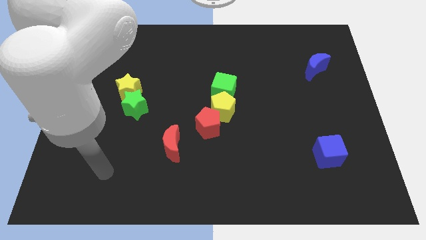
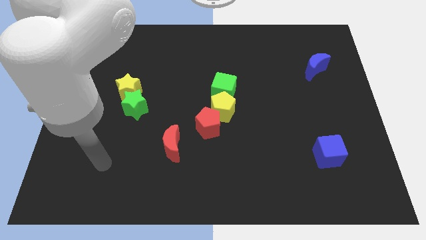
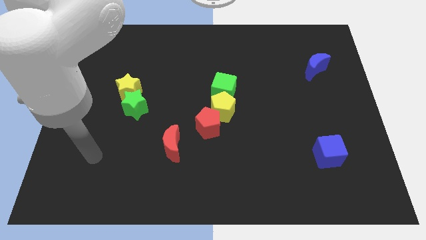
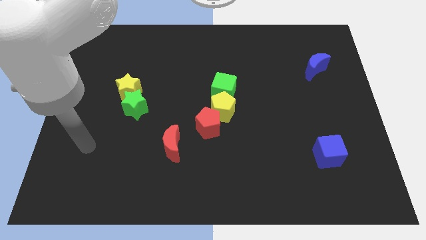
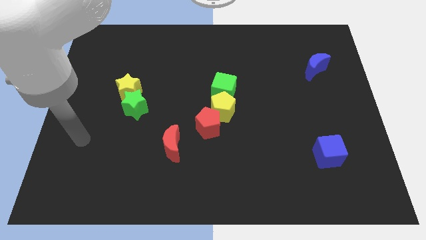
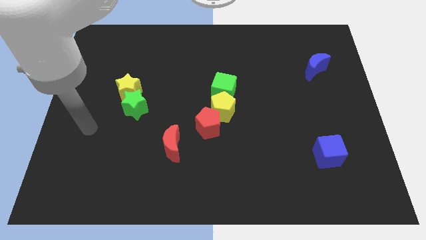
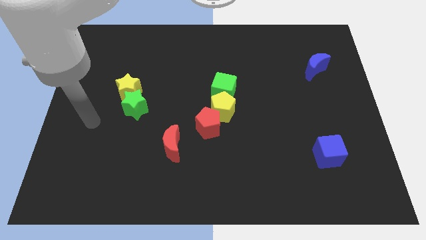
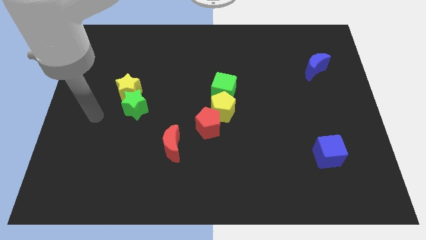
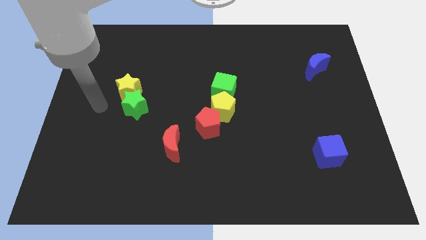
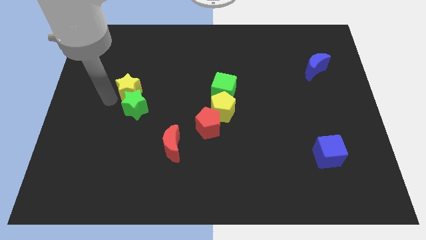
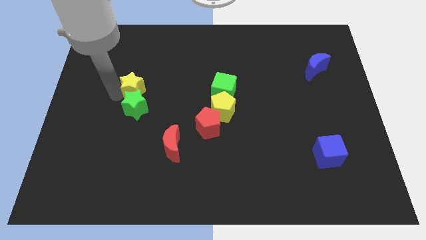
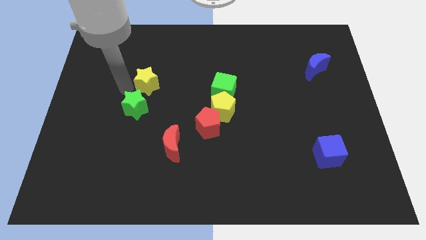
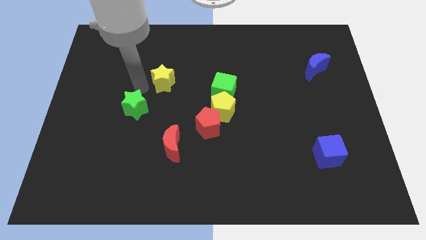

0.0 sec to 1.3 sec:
pull the green star apart from the yellow star

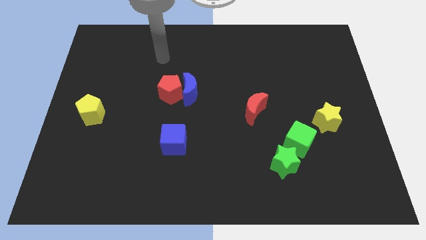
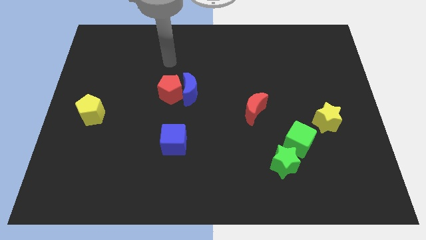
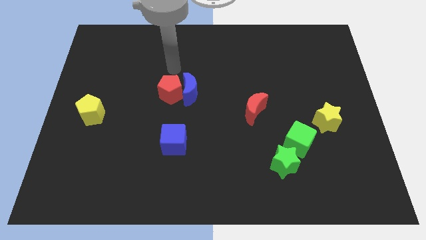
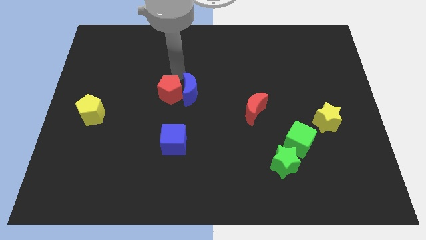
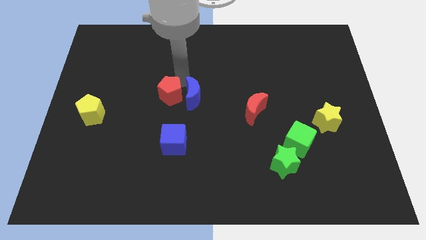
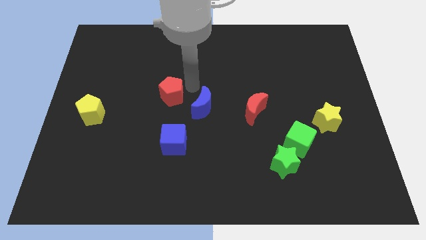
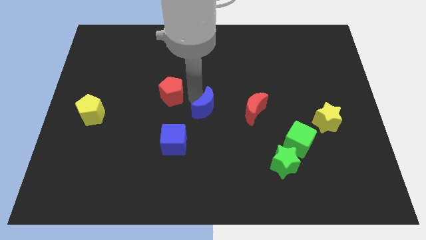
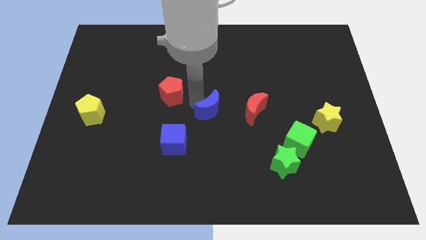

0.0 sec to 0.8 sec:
separate the red pentagon from the blue moon

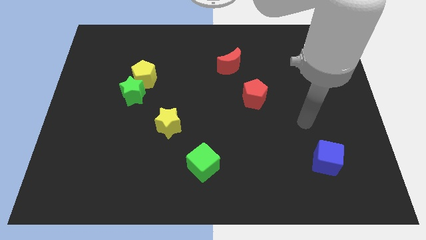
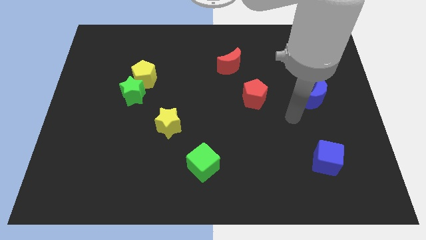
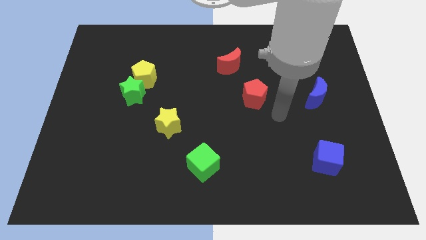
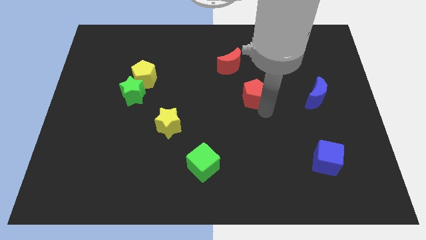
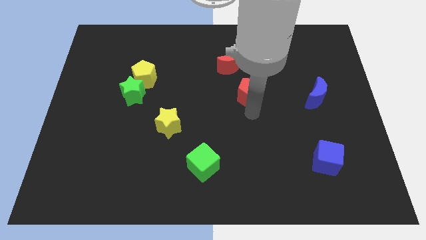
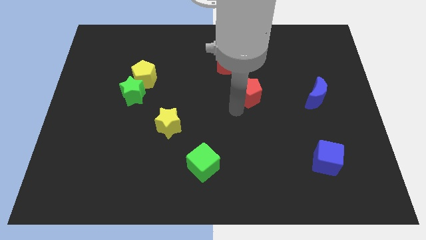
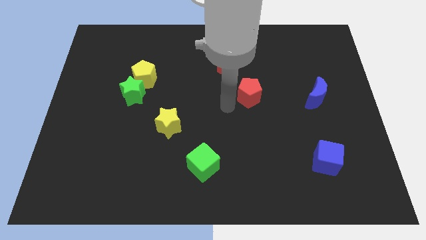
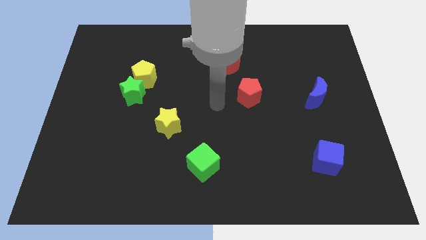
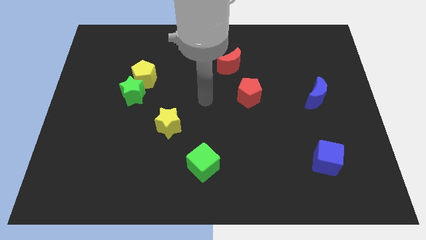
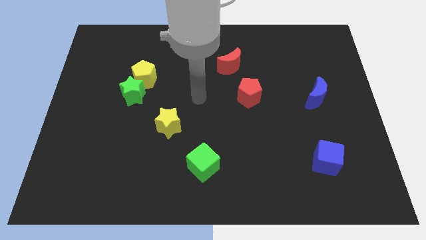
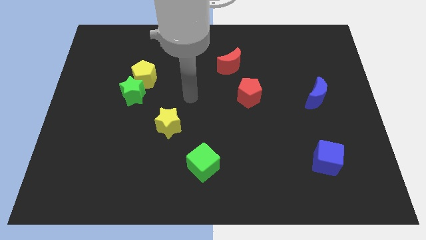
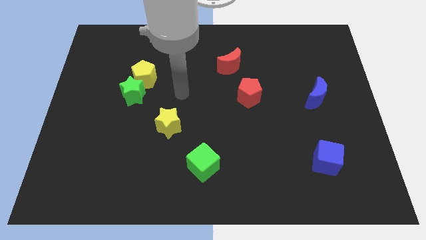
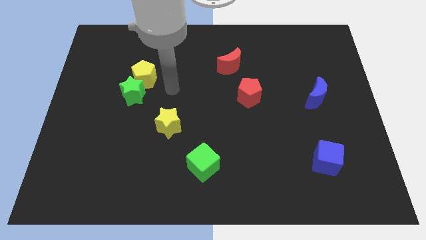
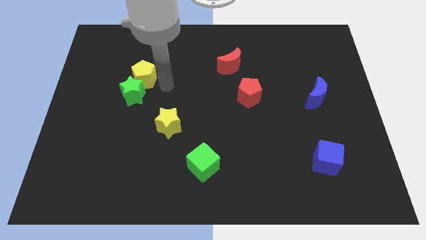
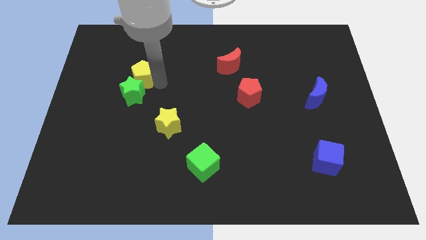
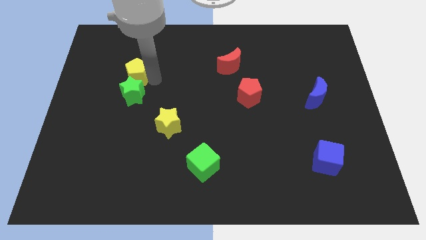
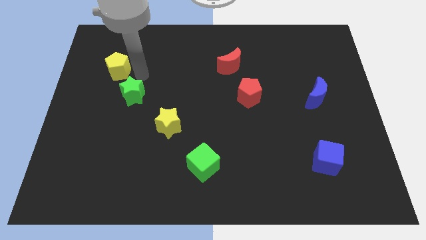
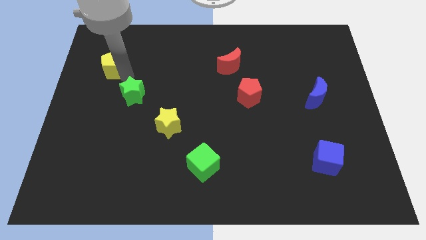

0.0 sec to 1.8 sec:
separate the green star from the yellow pentagon

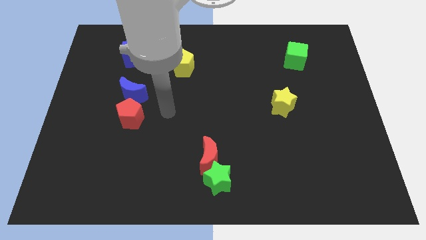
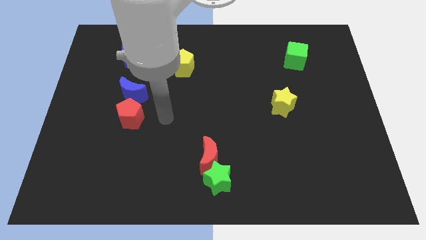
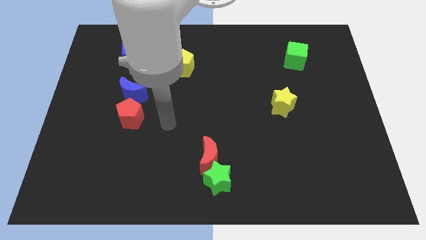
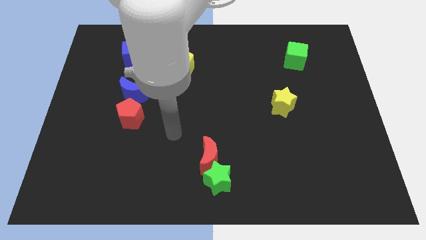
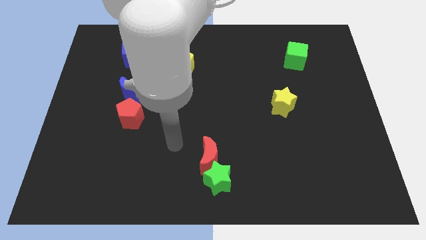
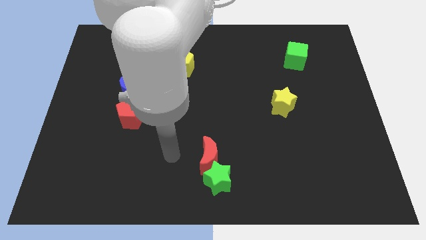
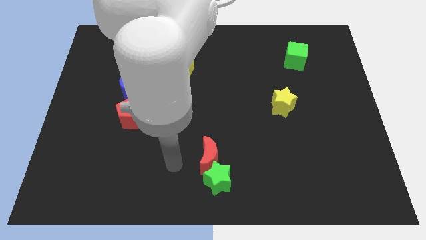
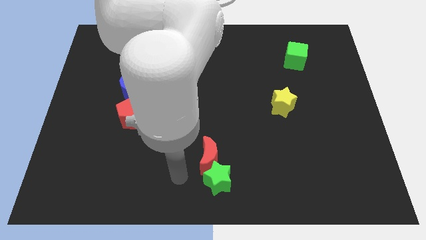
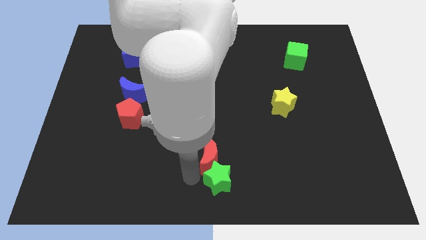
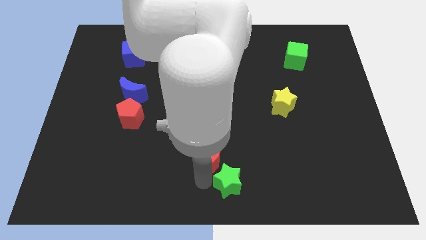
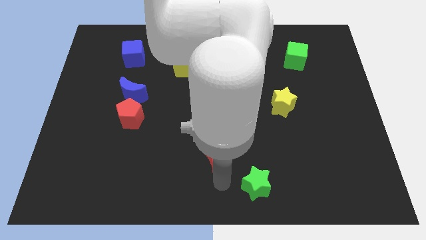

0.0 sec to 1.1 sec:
move the red moon away from the green star

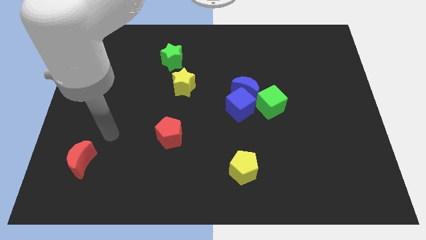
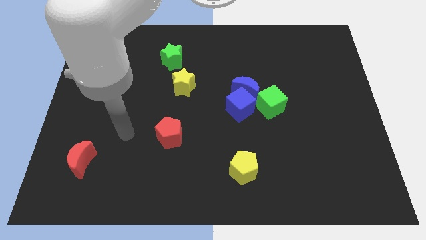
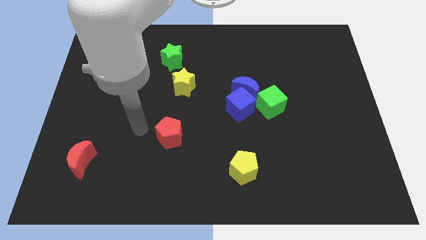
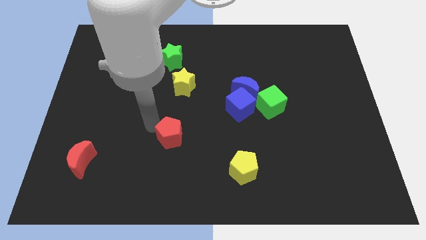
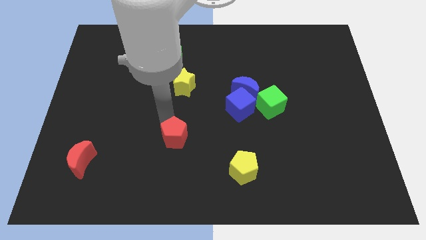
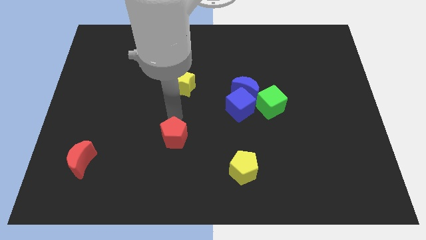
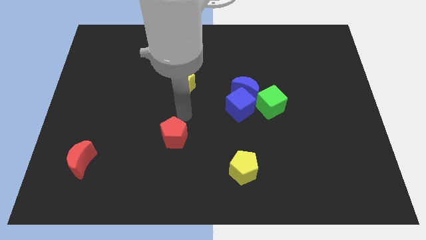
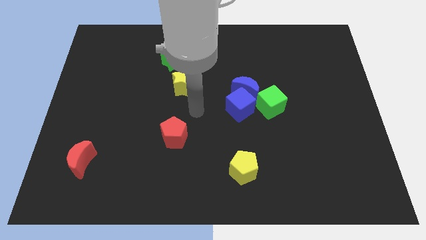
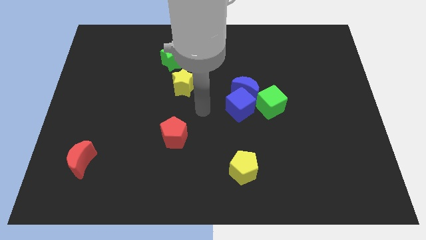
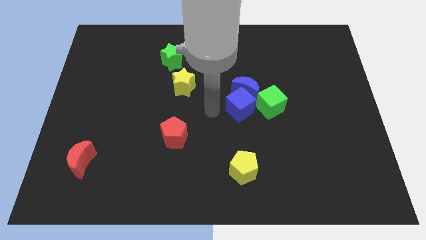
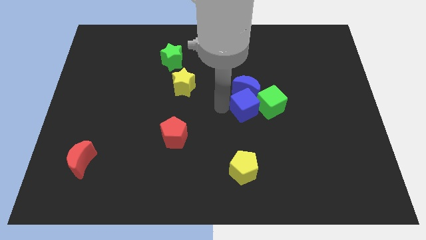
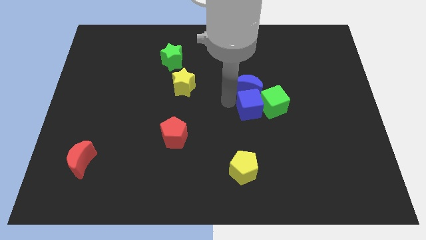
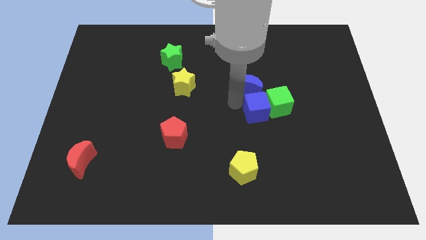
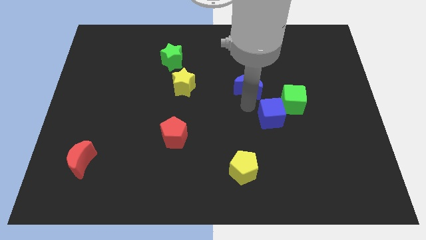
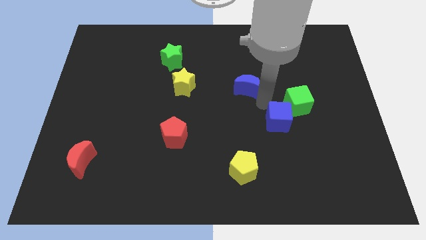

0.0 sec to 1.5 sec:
move the blue moon away from the blue cube and green cube

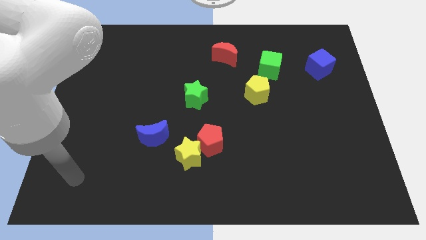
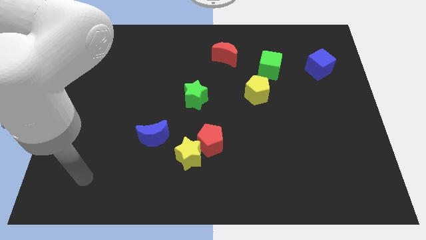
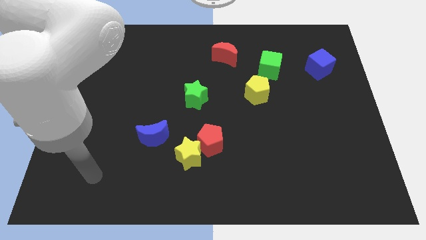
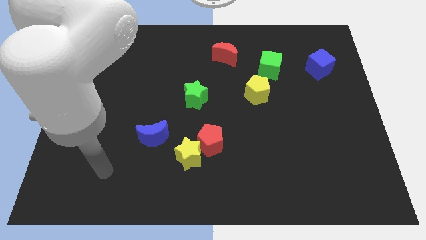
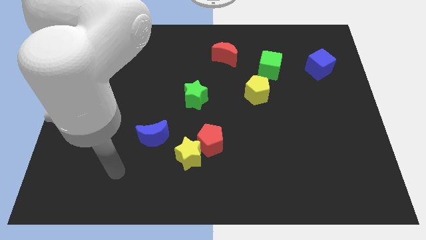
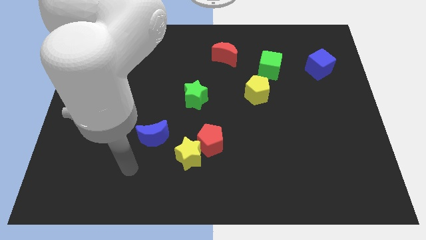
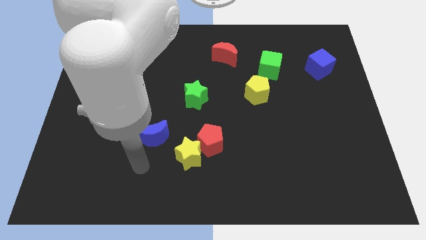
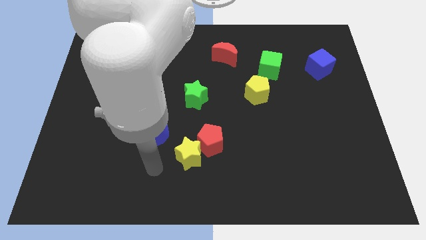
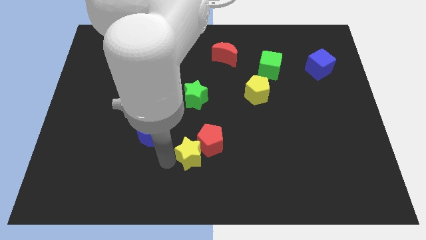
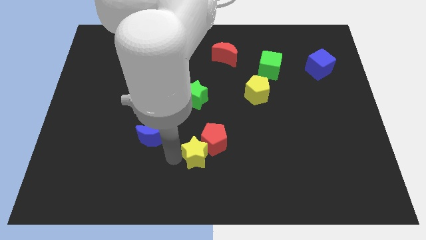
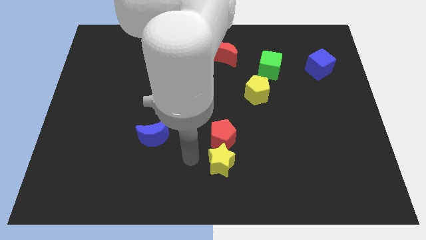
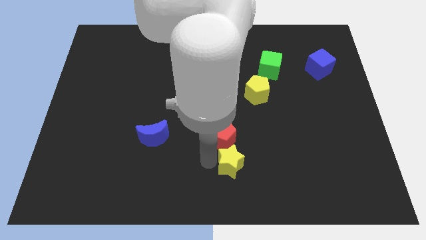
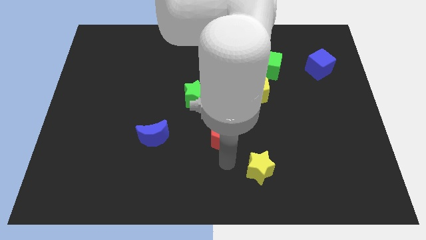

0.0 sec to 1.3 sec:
move the red pentagon away from the yellow star

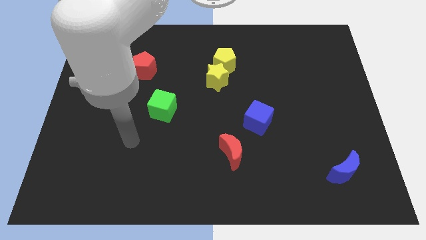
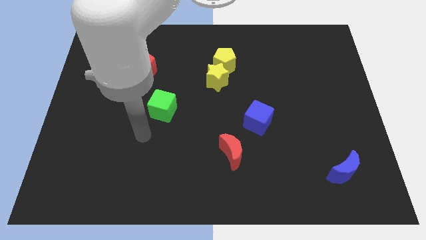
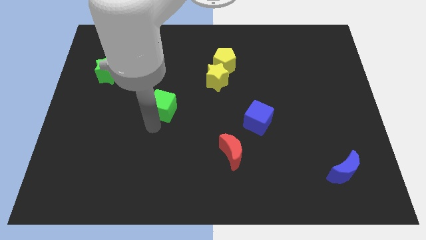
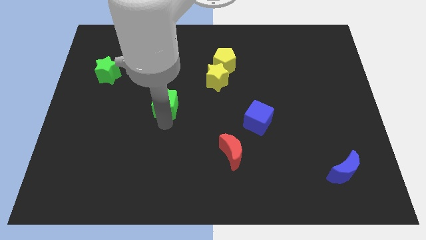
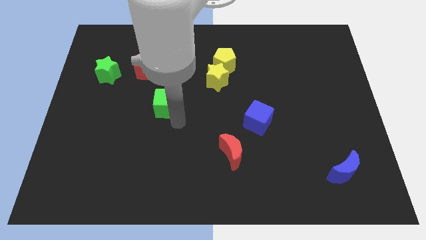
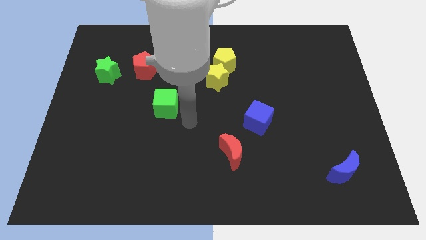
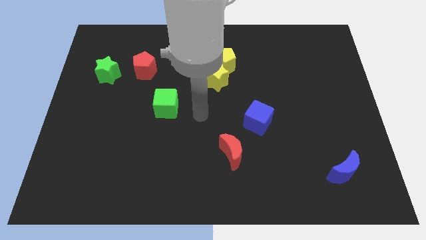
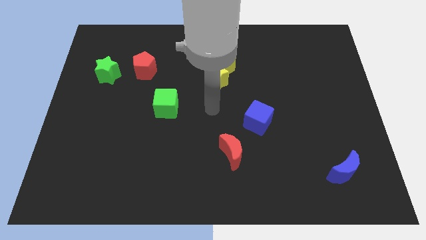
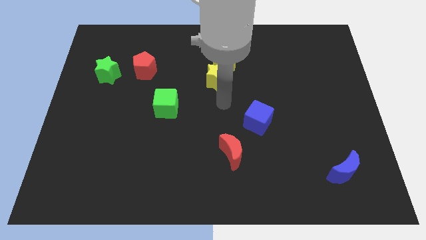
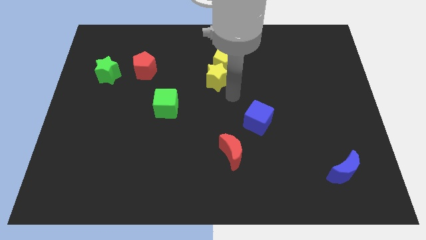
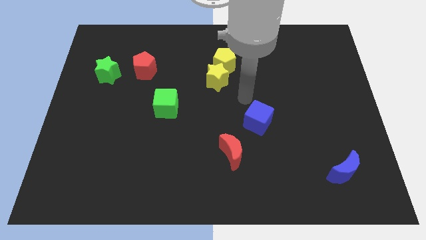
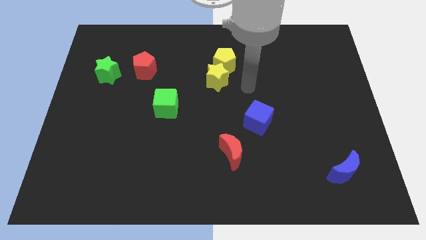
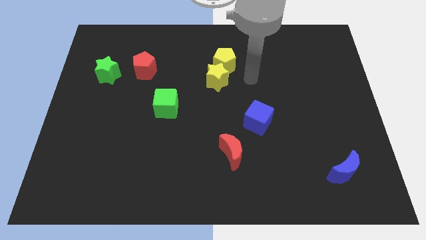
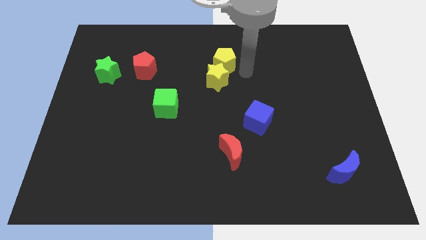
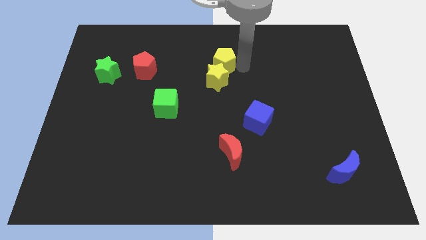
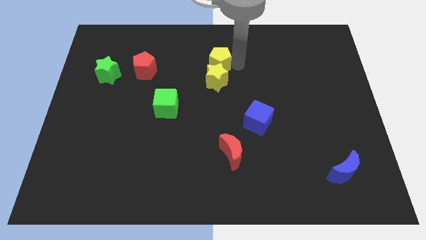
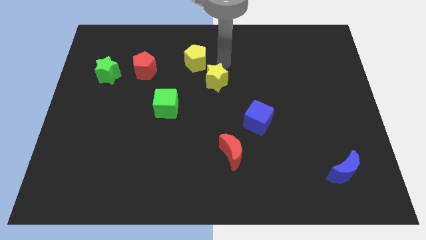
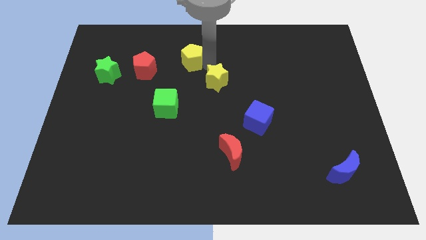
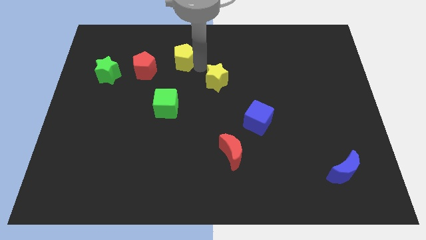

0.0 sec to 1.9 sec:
pull the yellow star apart from the yellow pentagon
